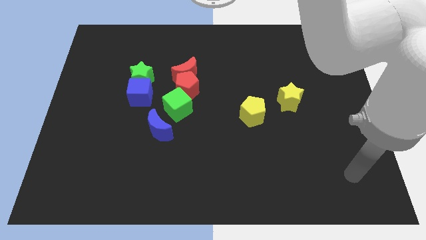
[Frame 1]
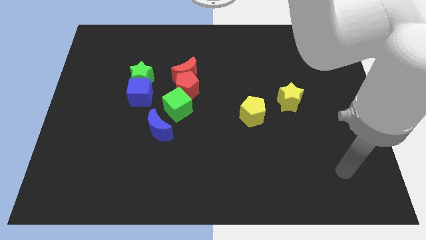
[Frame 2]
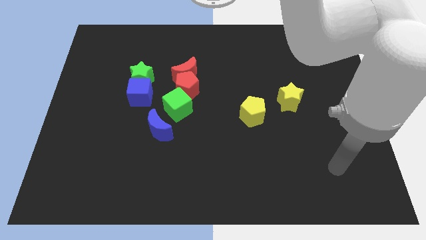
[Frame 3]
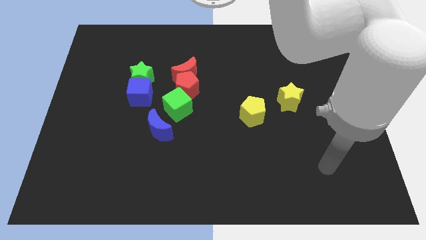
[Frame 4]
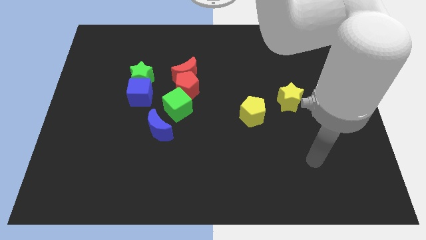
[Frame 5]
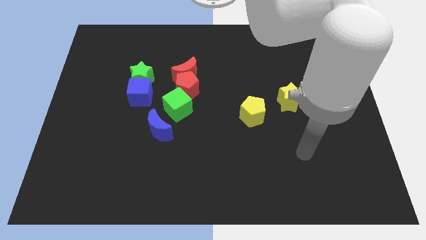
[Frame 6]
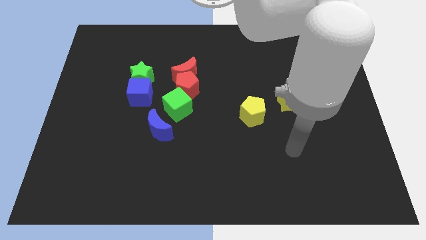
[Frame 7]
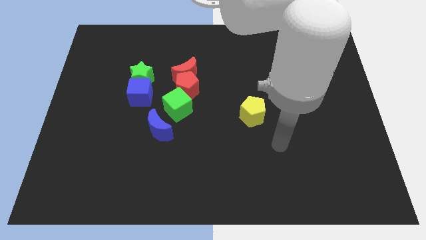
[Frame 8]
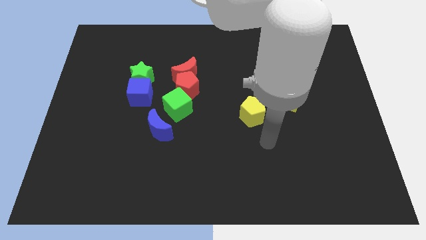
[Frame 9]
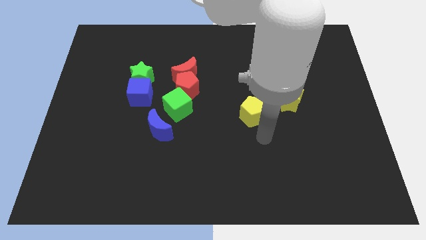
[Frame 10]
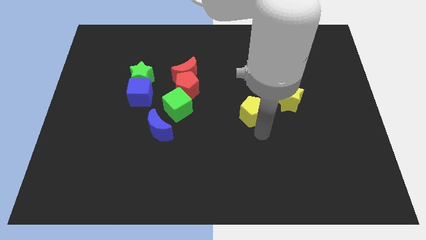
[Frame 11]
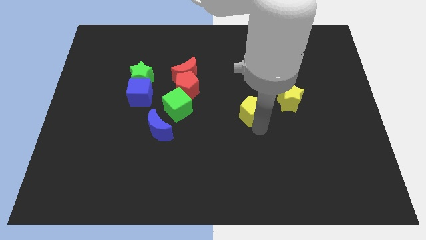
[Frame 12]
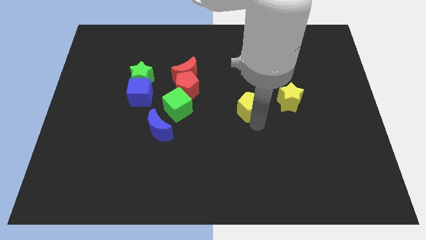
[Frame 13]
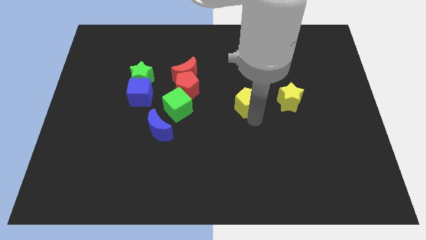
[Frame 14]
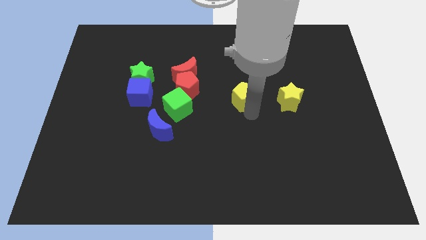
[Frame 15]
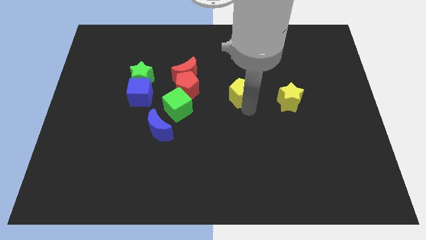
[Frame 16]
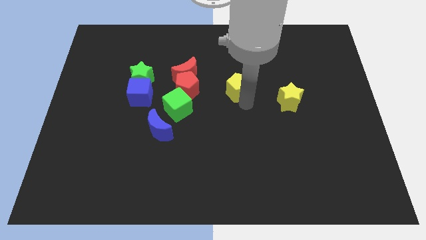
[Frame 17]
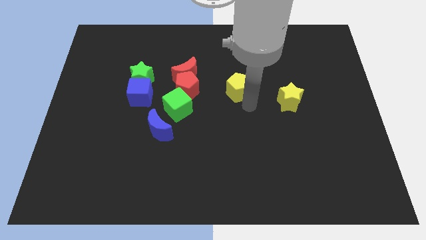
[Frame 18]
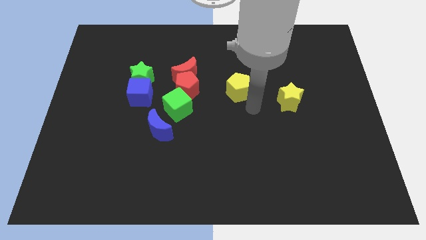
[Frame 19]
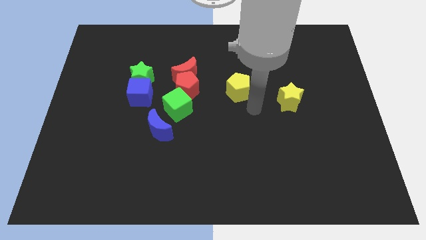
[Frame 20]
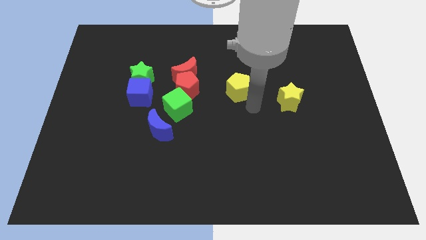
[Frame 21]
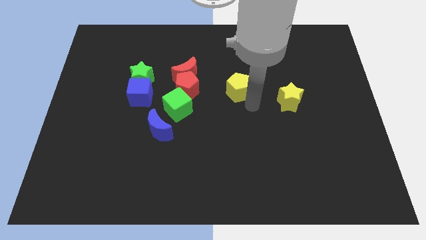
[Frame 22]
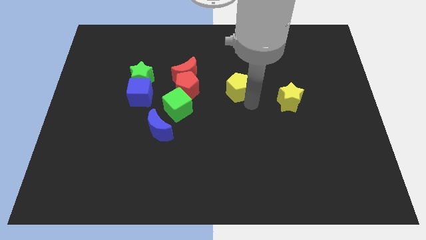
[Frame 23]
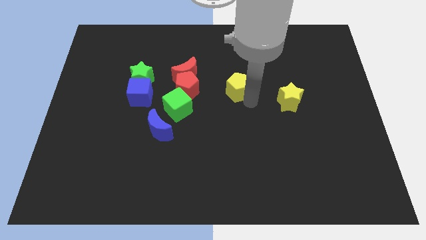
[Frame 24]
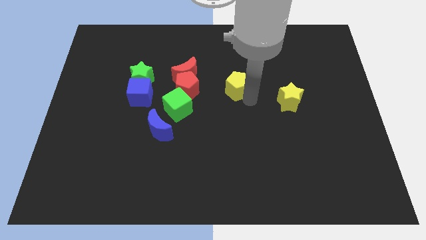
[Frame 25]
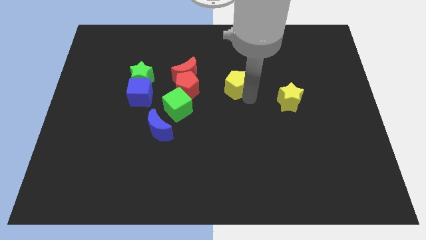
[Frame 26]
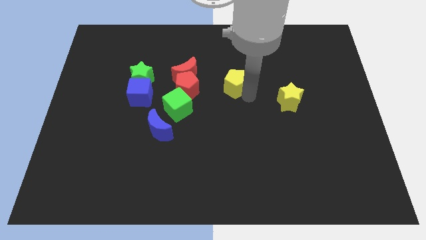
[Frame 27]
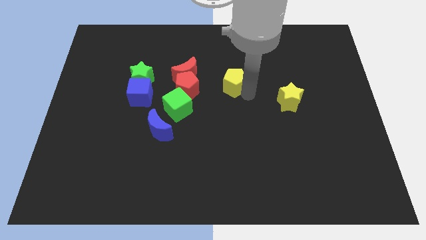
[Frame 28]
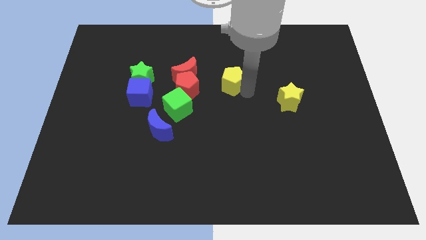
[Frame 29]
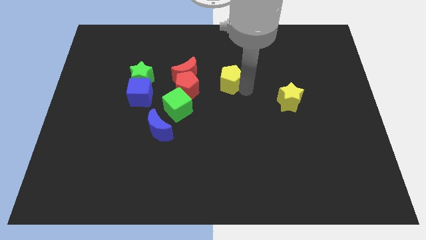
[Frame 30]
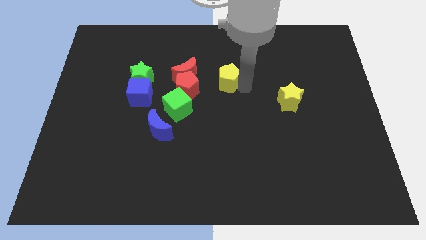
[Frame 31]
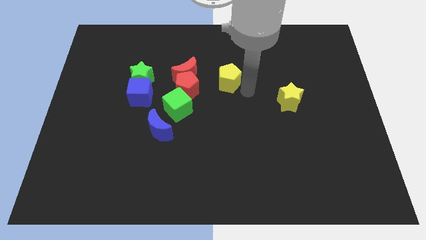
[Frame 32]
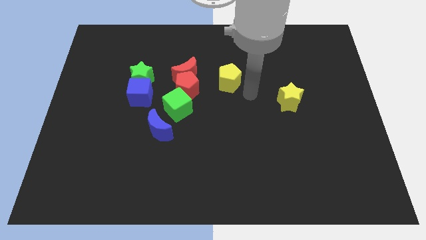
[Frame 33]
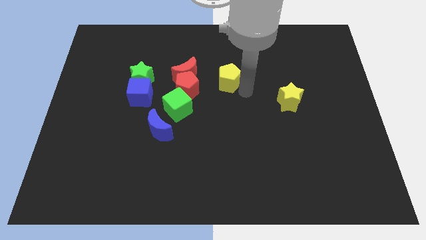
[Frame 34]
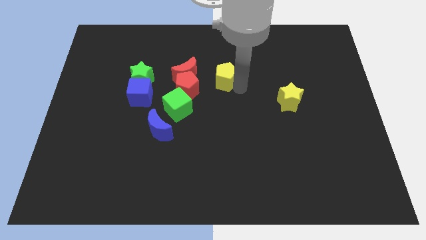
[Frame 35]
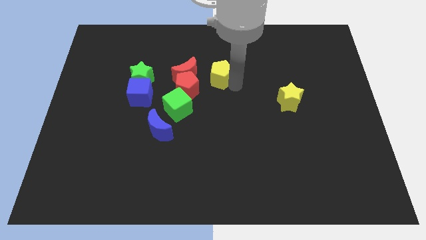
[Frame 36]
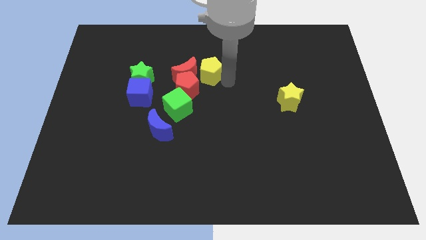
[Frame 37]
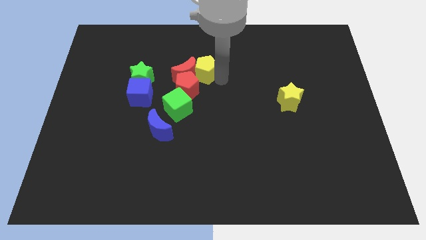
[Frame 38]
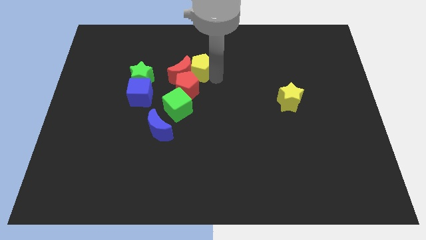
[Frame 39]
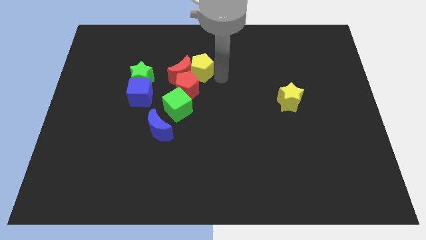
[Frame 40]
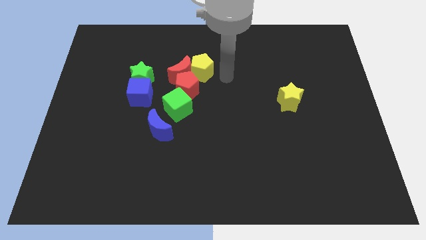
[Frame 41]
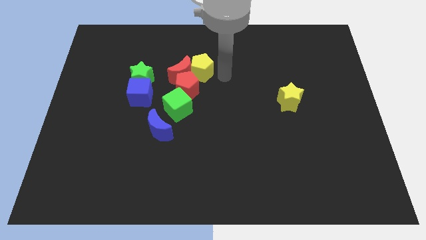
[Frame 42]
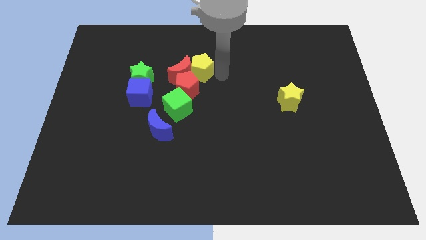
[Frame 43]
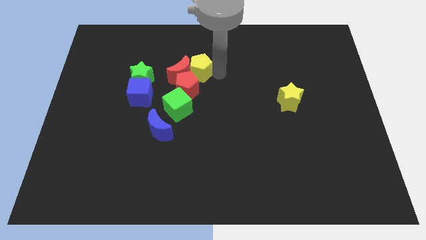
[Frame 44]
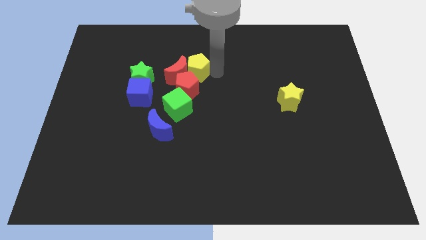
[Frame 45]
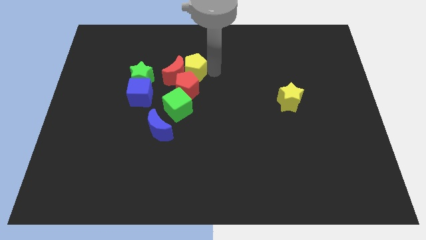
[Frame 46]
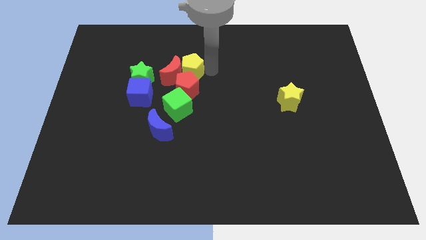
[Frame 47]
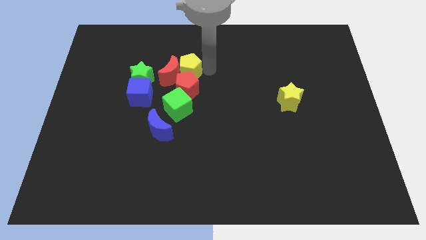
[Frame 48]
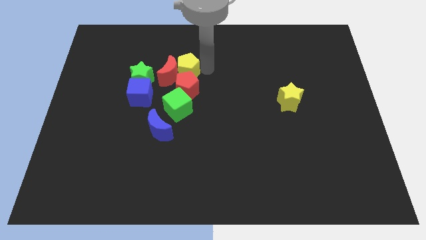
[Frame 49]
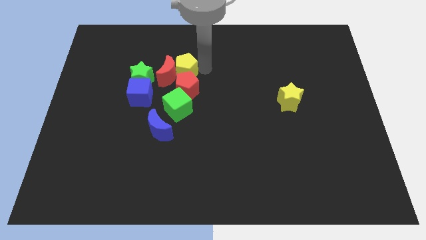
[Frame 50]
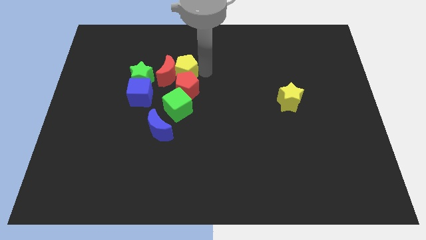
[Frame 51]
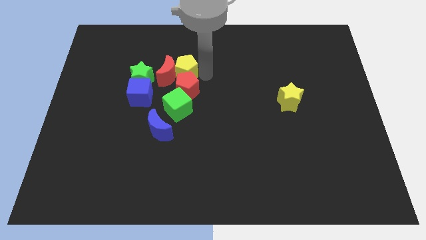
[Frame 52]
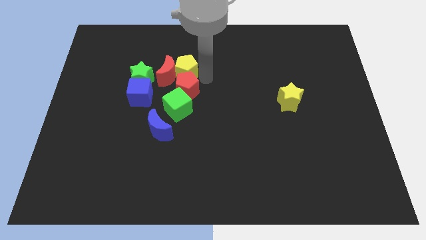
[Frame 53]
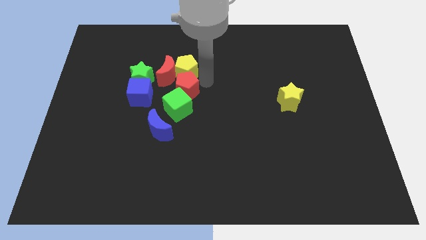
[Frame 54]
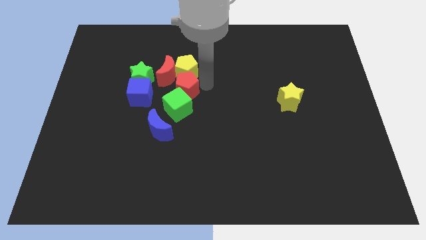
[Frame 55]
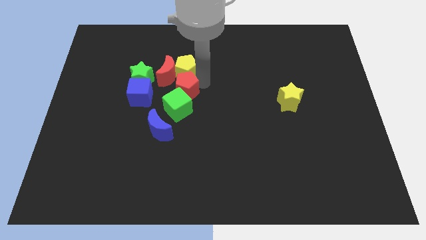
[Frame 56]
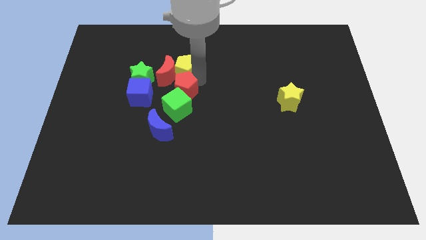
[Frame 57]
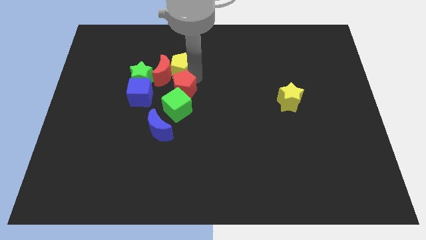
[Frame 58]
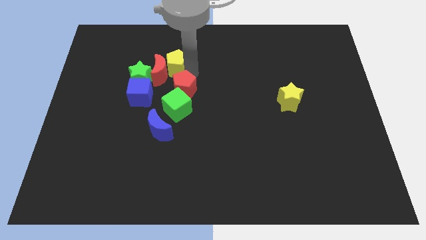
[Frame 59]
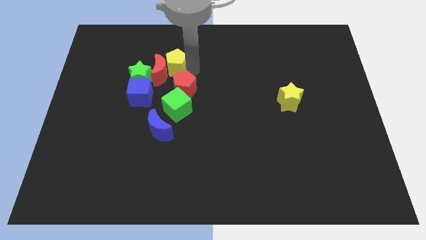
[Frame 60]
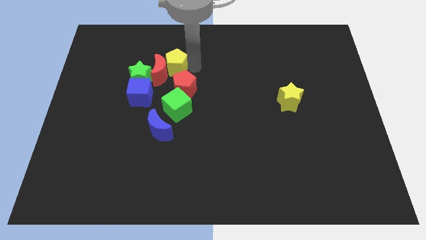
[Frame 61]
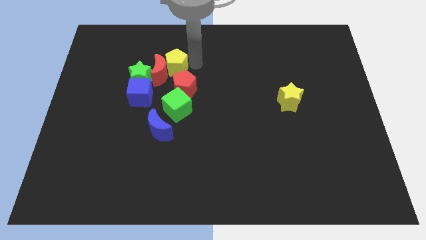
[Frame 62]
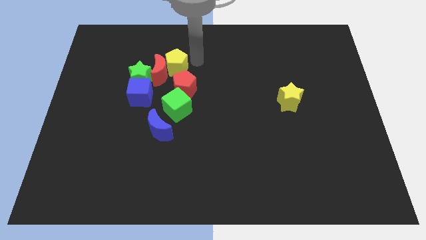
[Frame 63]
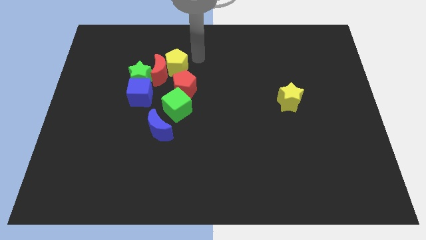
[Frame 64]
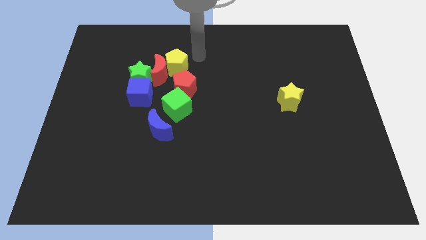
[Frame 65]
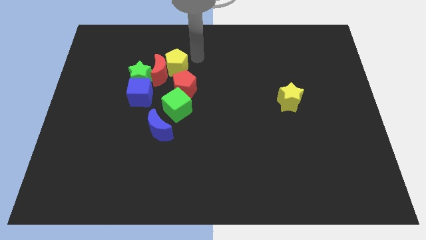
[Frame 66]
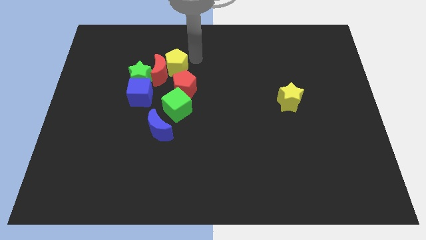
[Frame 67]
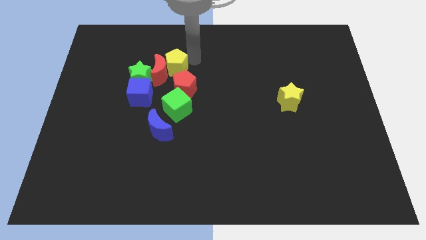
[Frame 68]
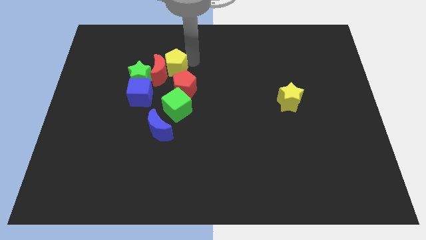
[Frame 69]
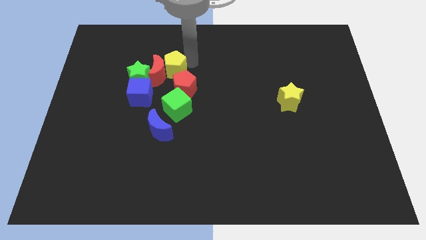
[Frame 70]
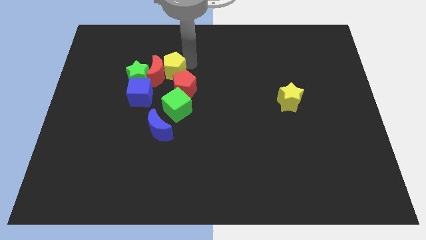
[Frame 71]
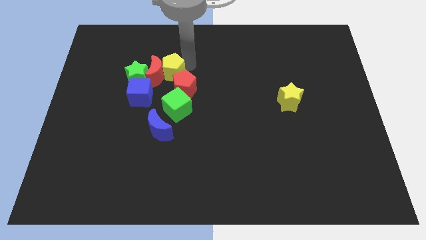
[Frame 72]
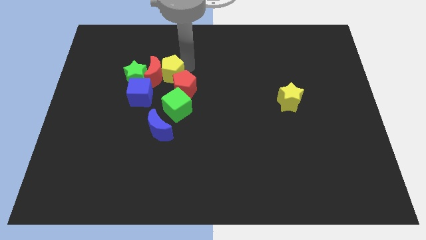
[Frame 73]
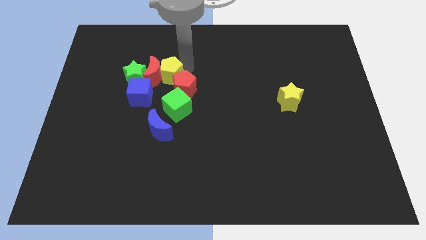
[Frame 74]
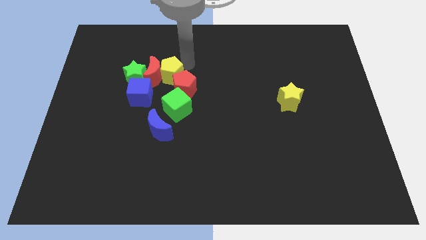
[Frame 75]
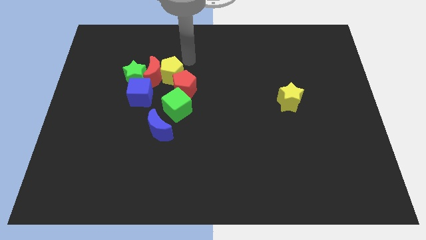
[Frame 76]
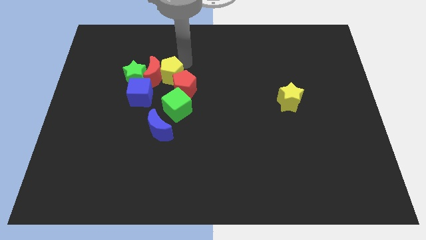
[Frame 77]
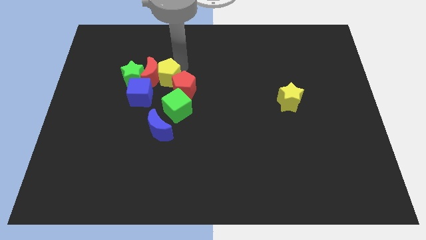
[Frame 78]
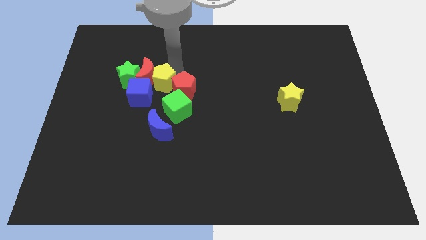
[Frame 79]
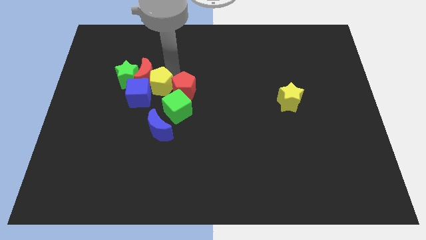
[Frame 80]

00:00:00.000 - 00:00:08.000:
put the yellow pentagon towards the blue cube
